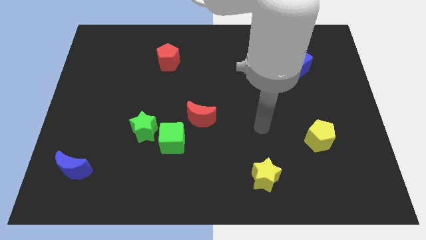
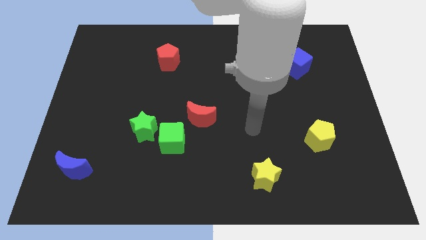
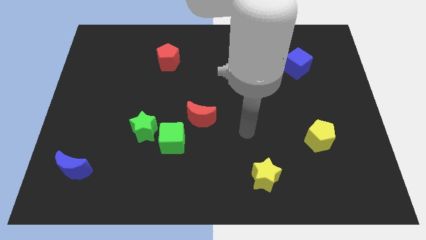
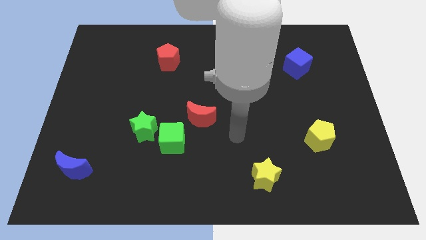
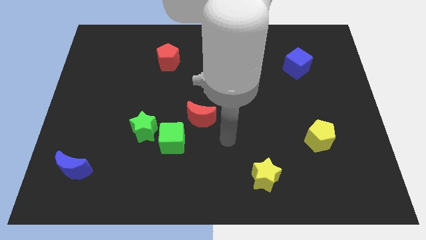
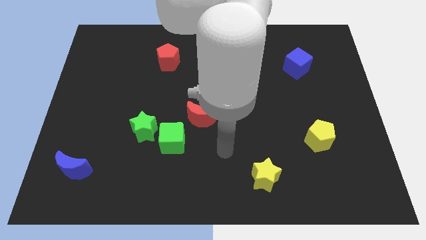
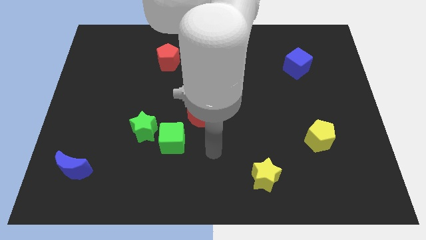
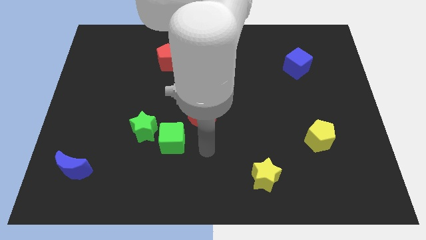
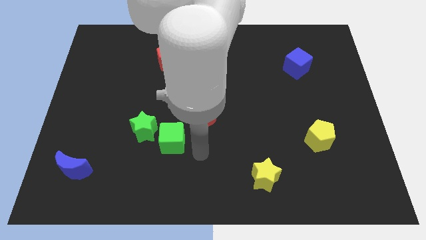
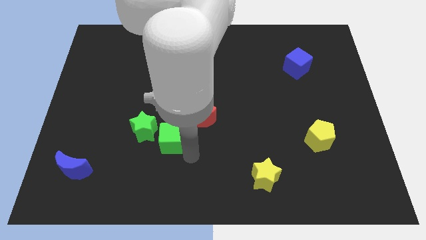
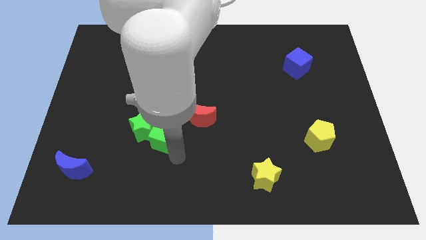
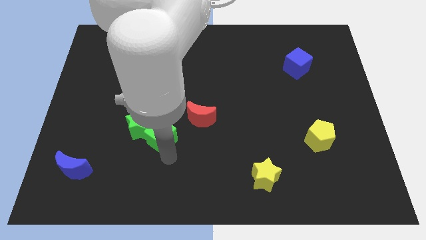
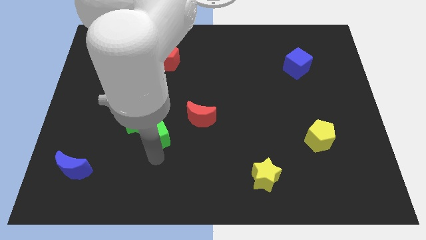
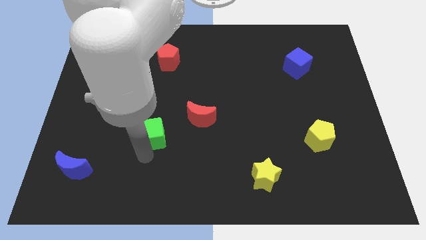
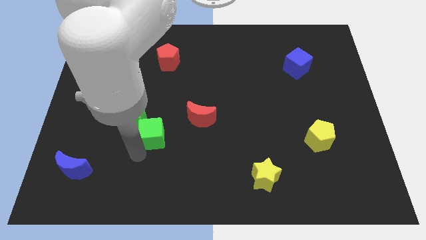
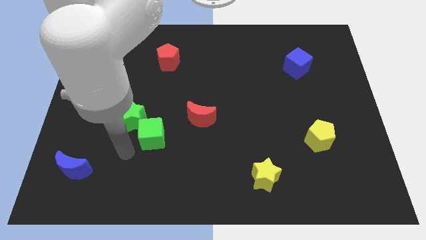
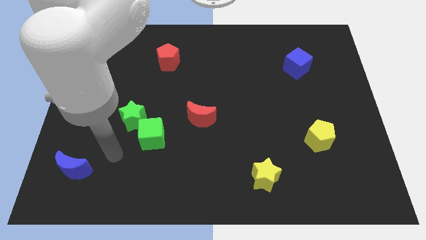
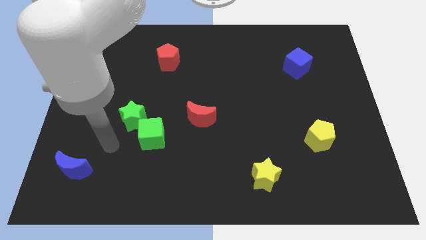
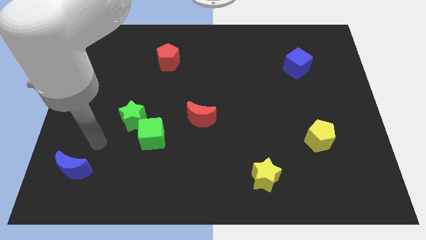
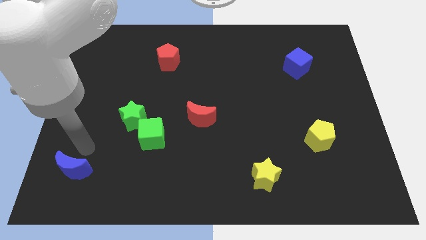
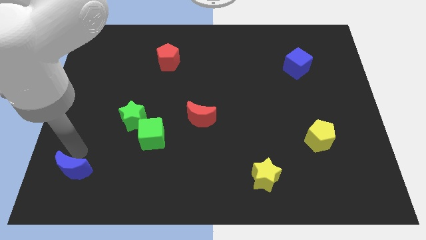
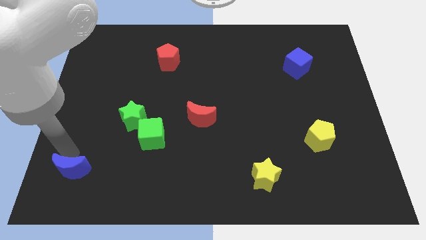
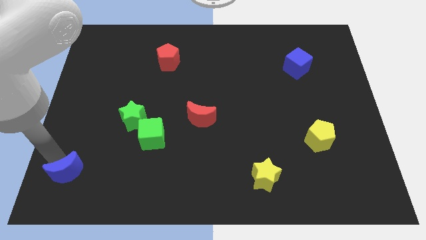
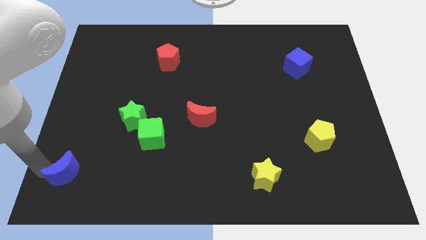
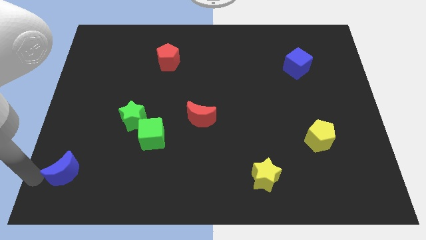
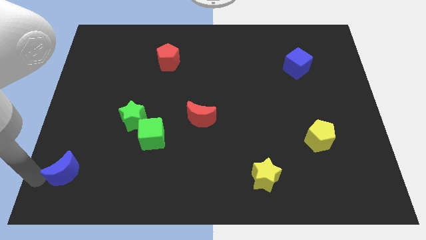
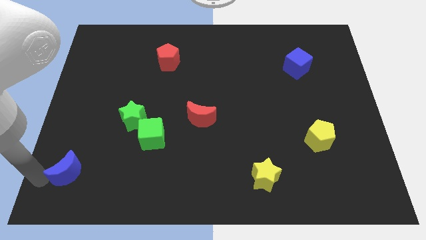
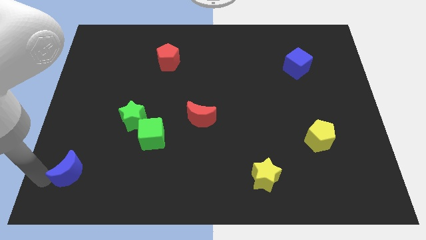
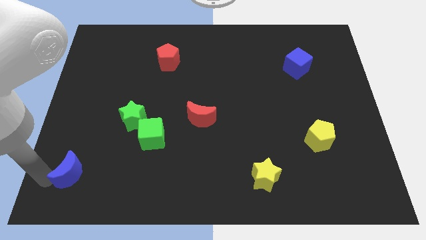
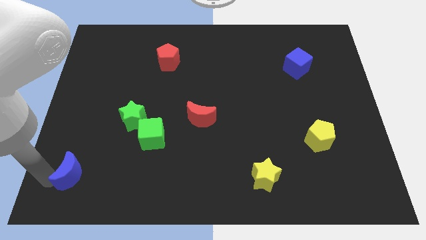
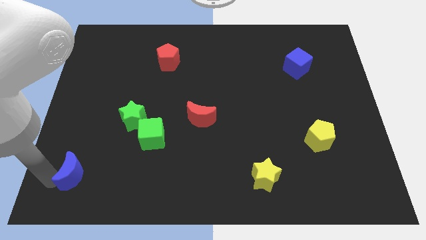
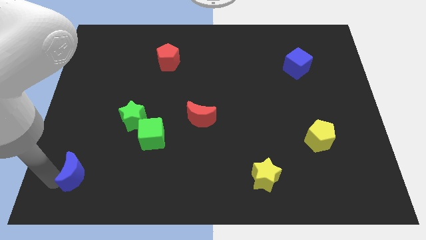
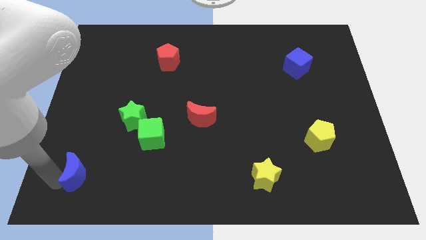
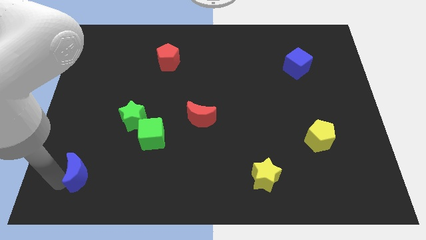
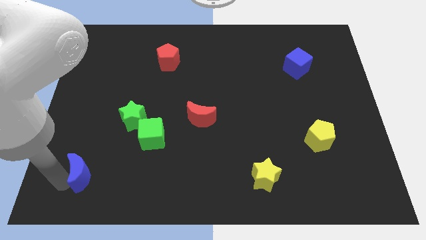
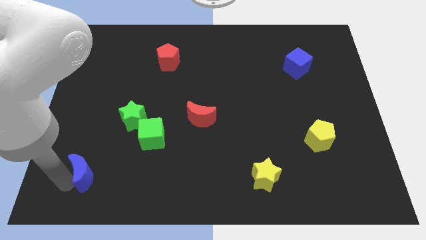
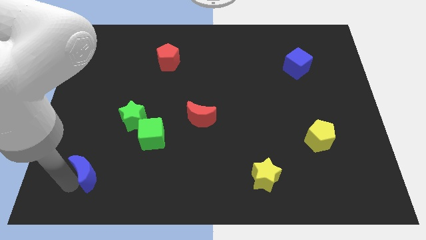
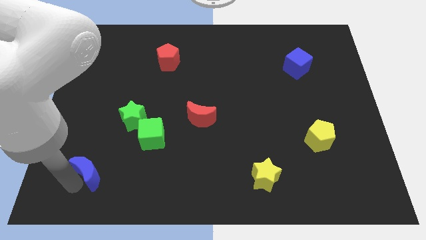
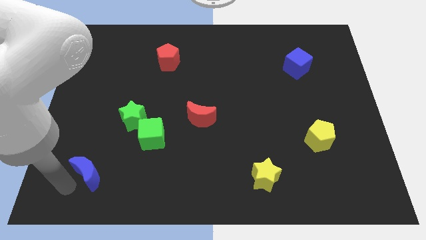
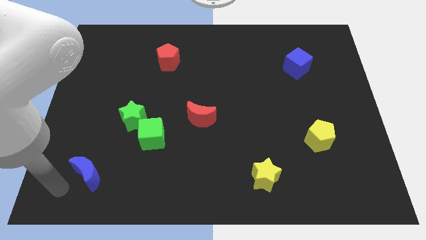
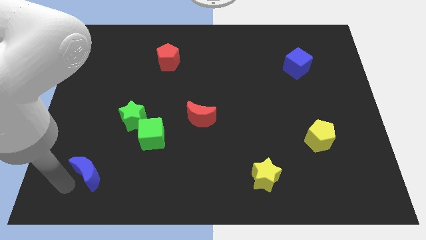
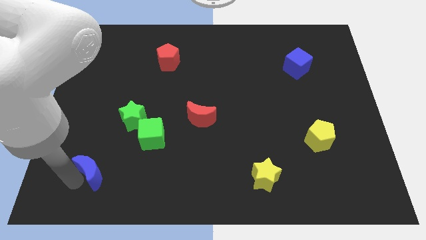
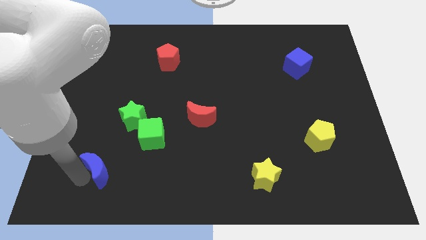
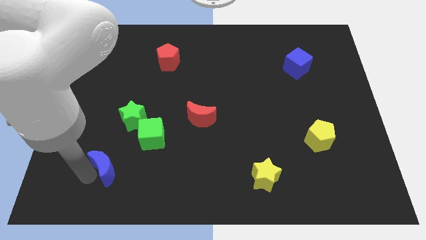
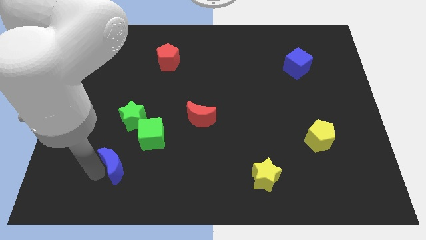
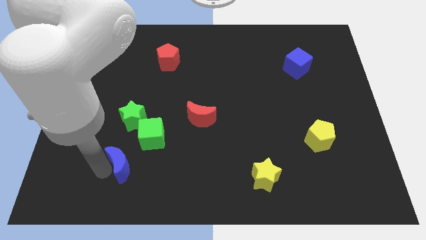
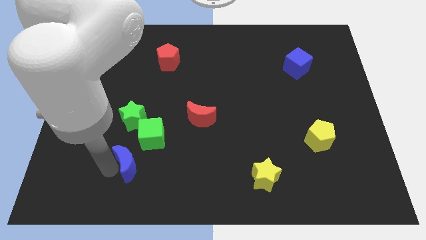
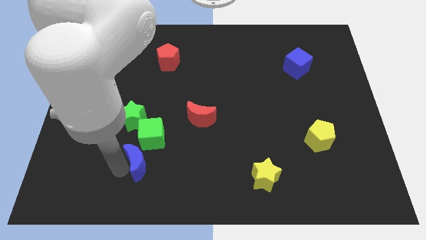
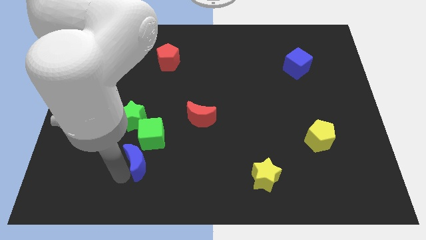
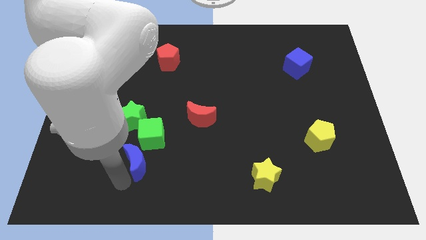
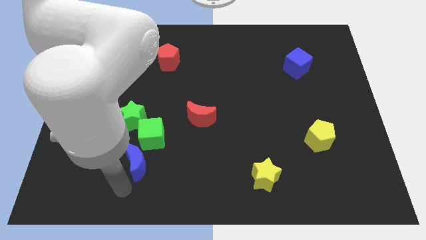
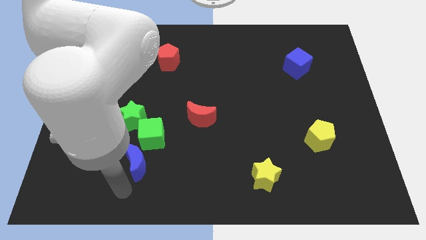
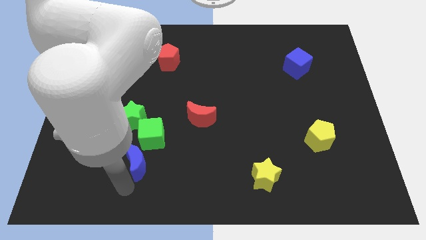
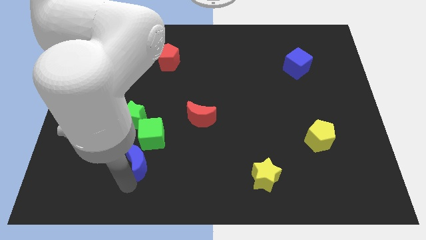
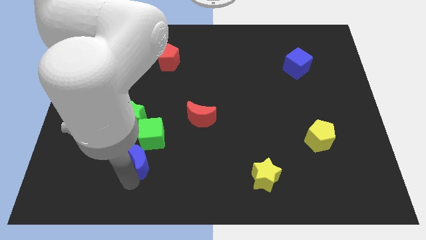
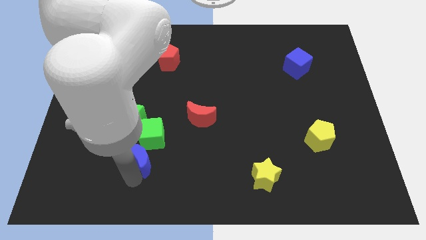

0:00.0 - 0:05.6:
put the blue moon next to the green cube
